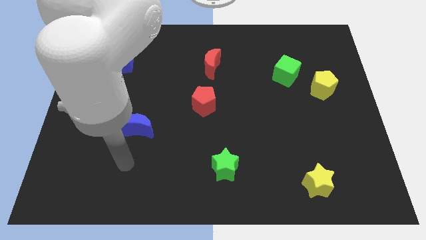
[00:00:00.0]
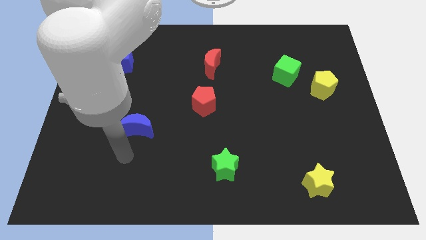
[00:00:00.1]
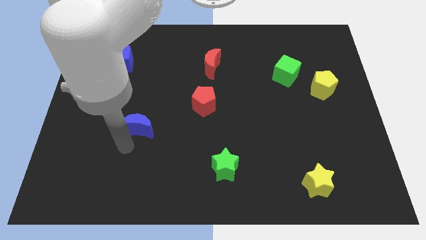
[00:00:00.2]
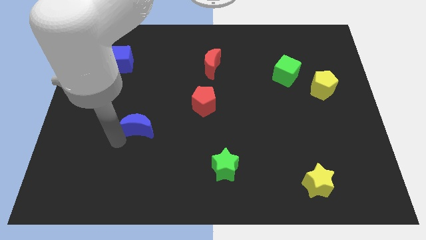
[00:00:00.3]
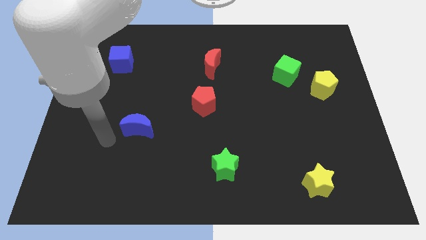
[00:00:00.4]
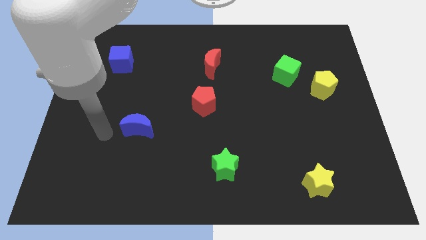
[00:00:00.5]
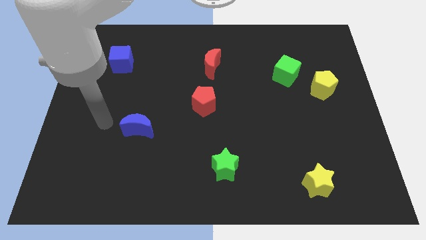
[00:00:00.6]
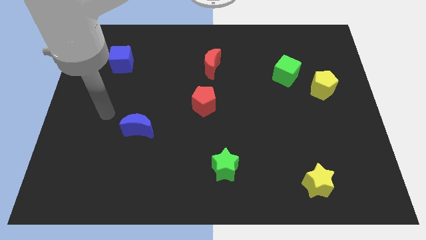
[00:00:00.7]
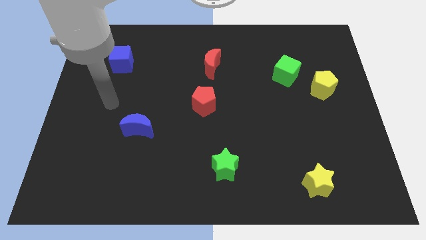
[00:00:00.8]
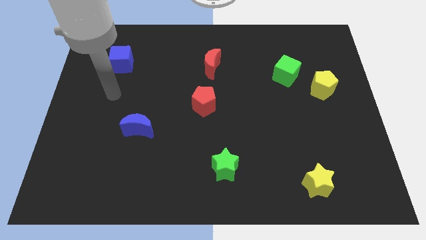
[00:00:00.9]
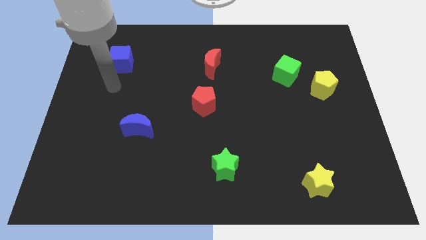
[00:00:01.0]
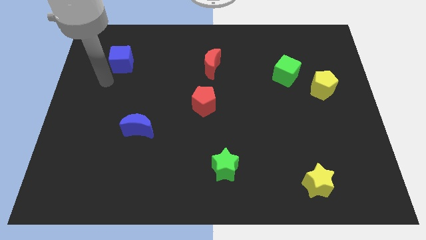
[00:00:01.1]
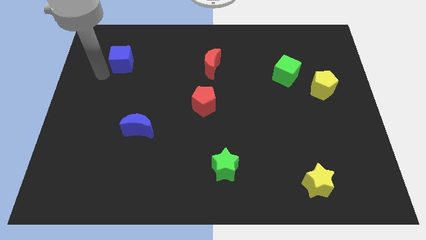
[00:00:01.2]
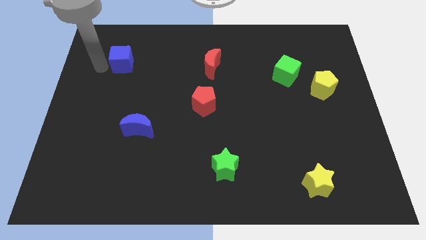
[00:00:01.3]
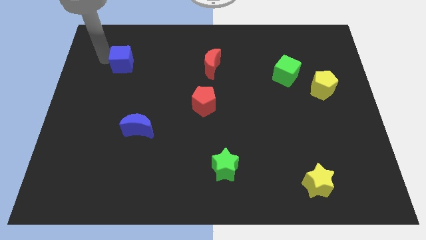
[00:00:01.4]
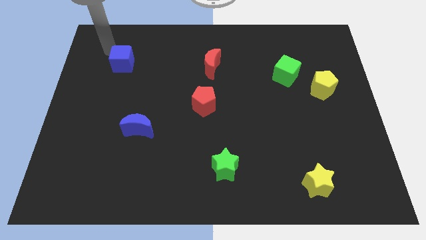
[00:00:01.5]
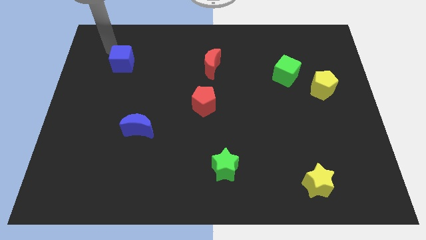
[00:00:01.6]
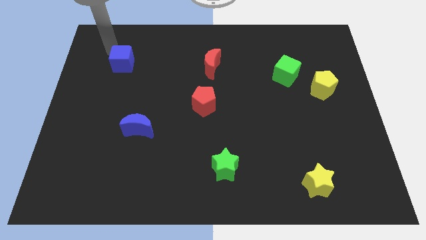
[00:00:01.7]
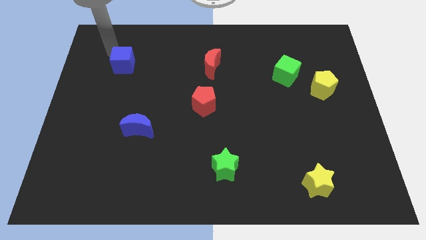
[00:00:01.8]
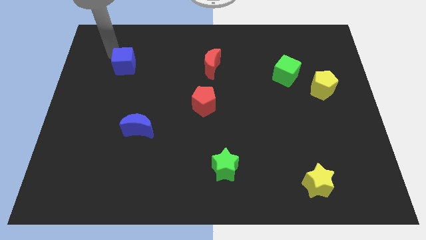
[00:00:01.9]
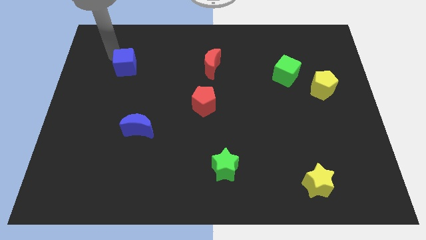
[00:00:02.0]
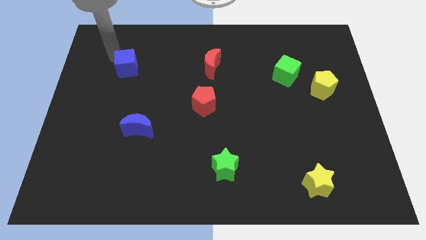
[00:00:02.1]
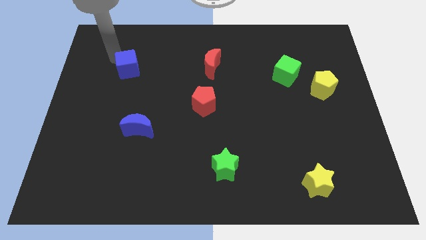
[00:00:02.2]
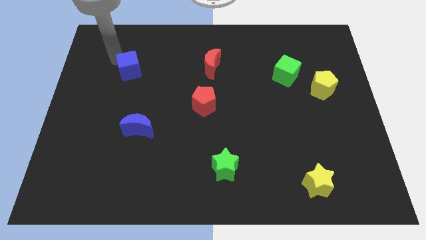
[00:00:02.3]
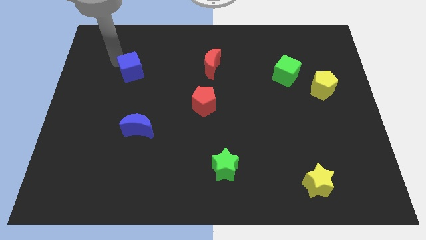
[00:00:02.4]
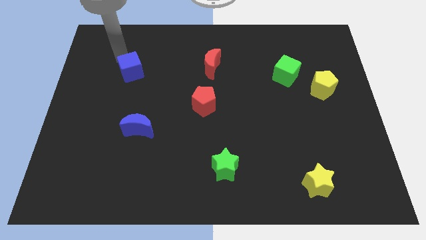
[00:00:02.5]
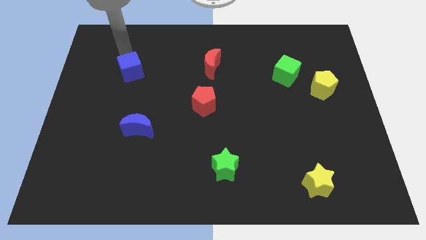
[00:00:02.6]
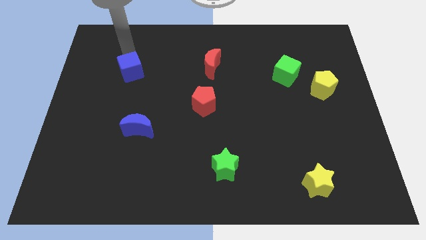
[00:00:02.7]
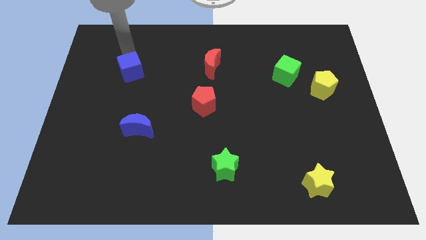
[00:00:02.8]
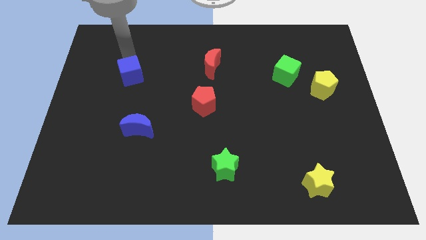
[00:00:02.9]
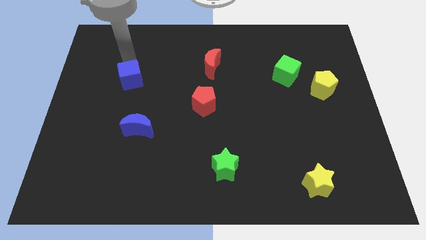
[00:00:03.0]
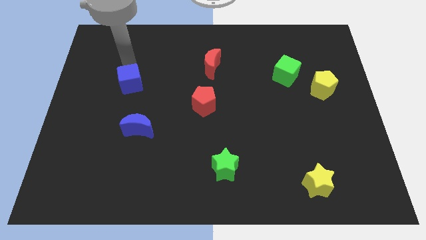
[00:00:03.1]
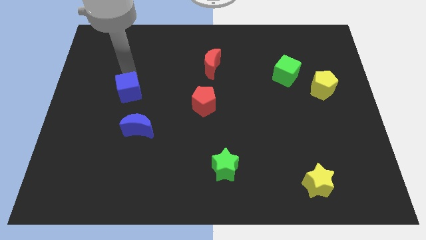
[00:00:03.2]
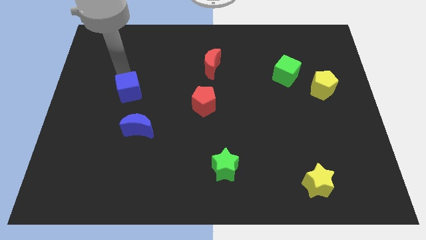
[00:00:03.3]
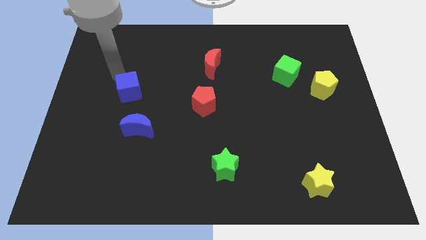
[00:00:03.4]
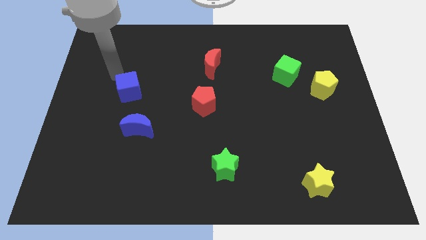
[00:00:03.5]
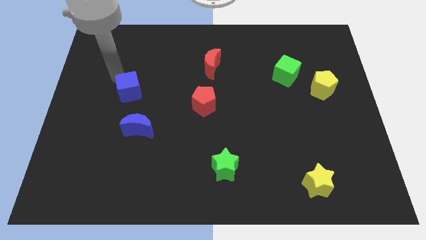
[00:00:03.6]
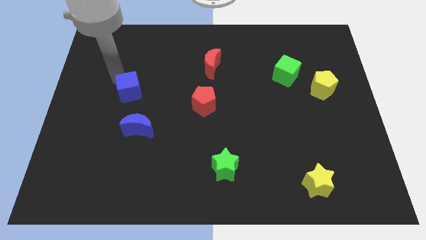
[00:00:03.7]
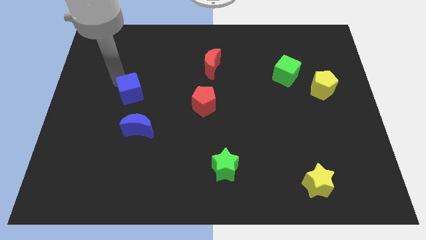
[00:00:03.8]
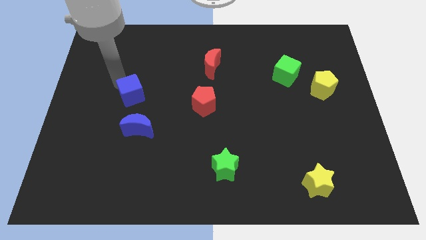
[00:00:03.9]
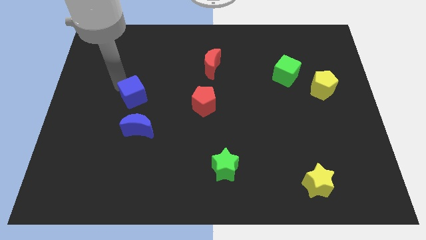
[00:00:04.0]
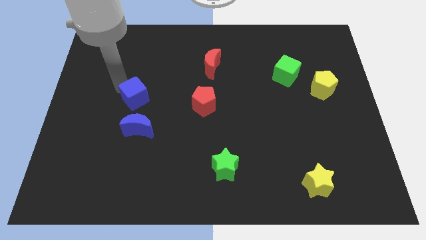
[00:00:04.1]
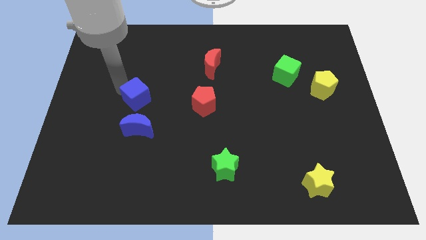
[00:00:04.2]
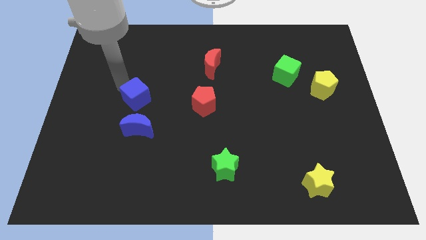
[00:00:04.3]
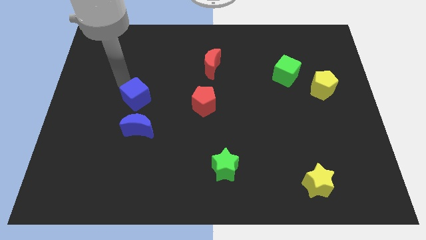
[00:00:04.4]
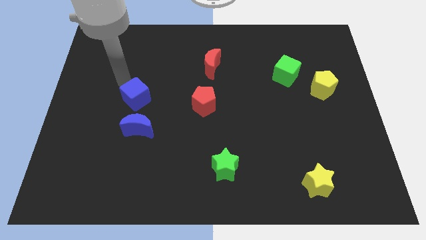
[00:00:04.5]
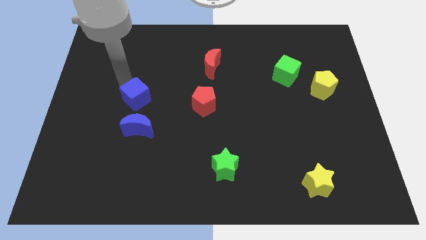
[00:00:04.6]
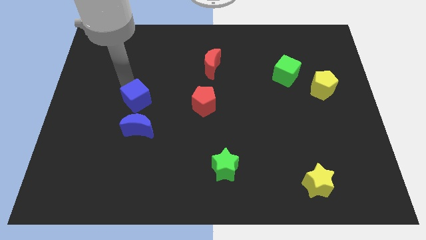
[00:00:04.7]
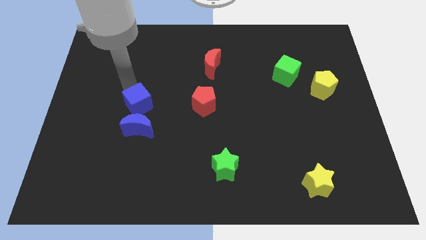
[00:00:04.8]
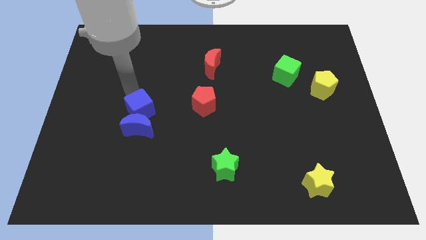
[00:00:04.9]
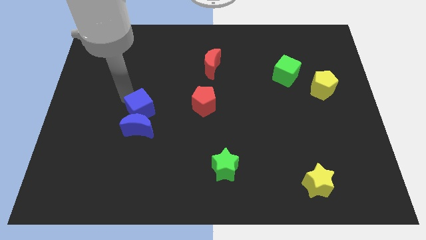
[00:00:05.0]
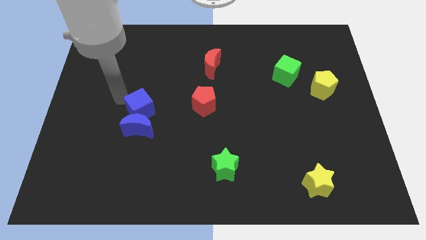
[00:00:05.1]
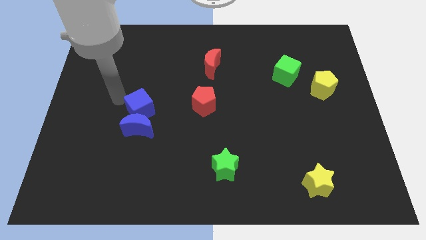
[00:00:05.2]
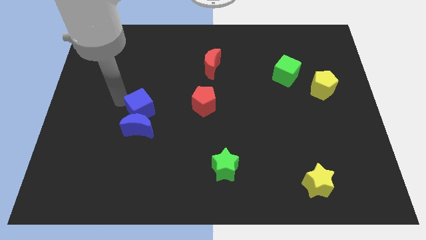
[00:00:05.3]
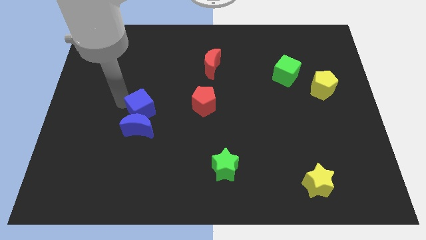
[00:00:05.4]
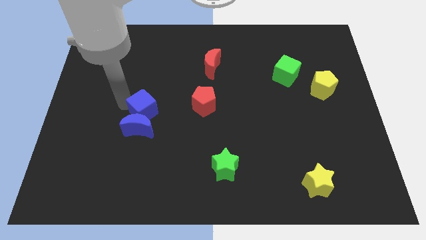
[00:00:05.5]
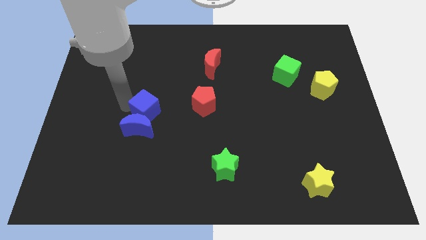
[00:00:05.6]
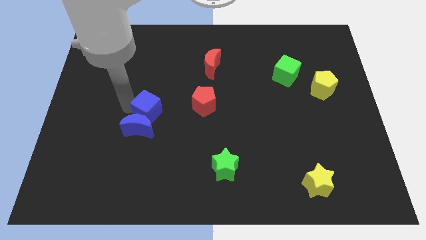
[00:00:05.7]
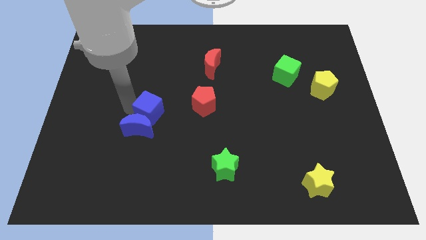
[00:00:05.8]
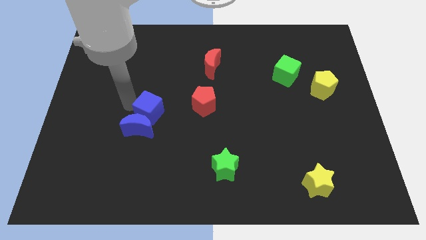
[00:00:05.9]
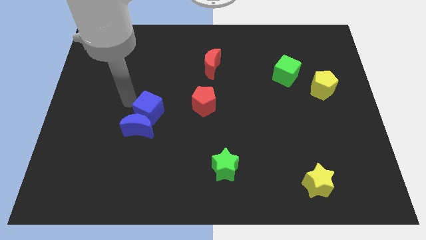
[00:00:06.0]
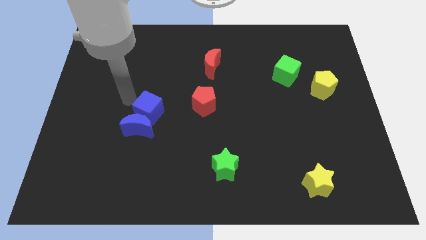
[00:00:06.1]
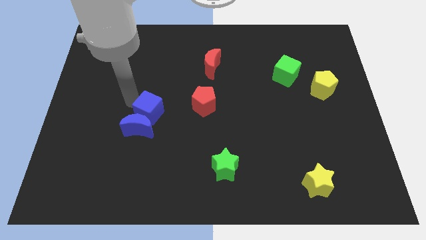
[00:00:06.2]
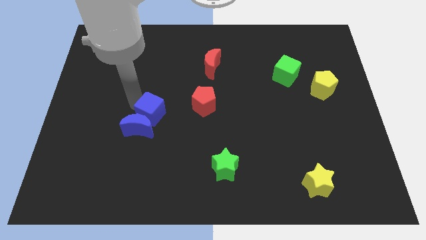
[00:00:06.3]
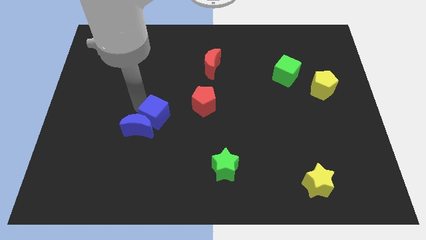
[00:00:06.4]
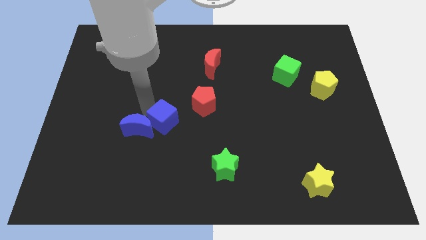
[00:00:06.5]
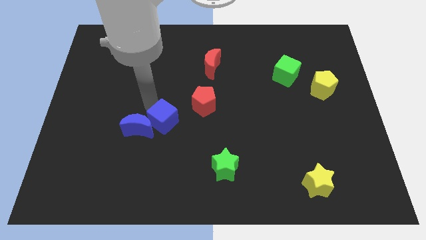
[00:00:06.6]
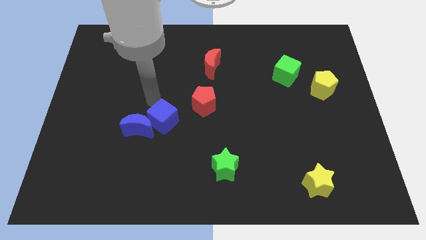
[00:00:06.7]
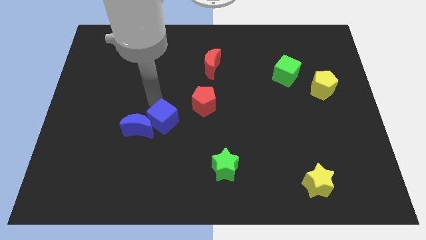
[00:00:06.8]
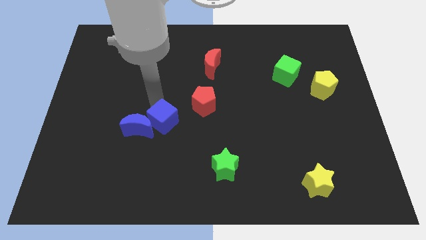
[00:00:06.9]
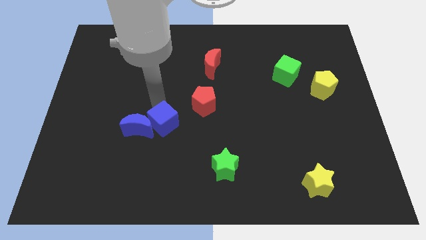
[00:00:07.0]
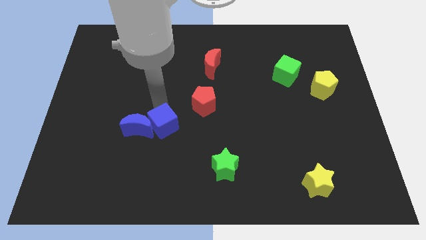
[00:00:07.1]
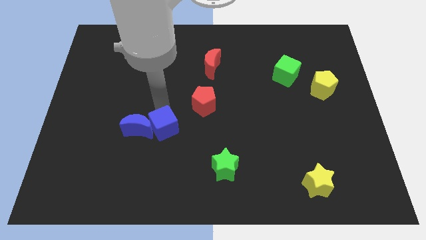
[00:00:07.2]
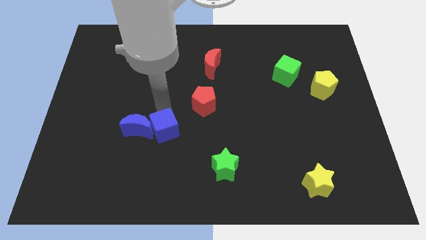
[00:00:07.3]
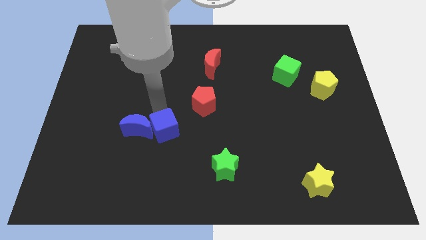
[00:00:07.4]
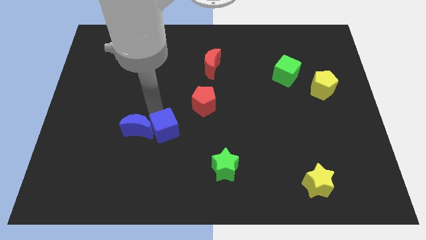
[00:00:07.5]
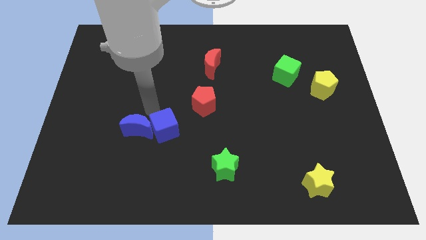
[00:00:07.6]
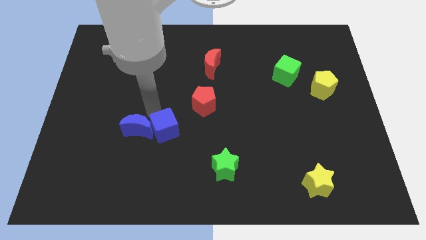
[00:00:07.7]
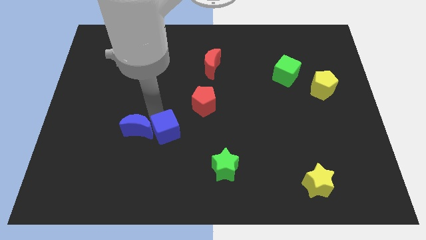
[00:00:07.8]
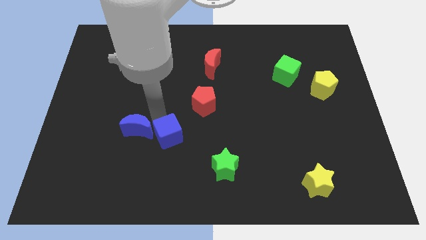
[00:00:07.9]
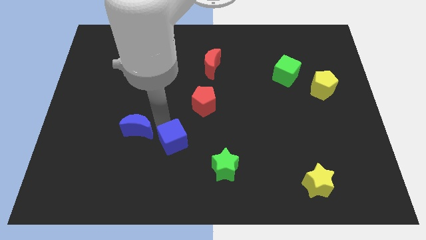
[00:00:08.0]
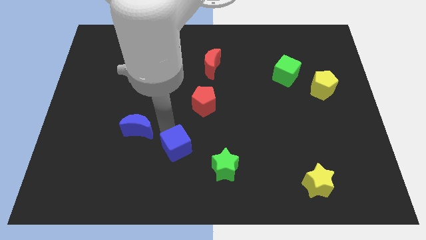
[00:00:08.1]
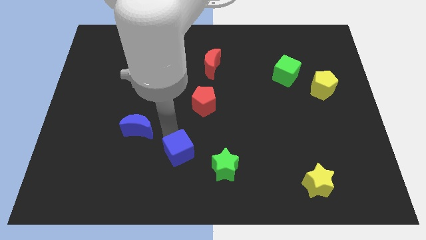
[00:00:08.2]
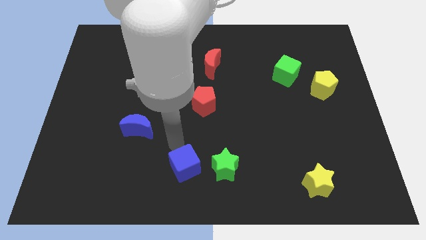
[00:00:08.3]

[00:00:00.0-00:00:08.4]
push the blue cube to the bottom side
